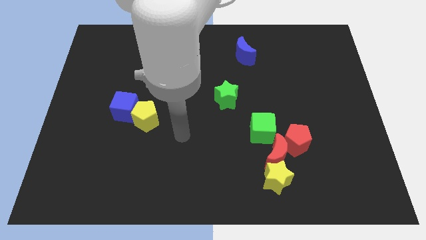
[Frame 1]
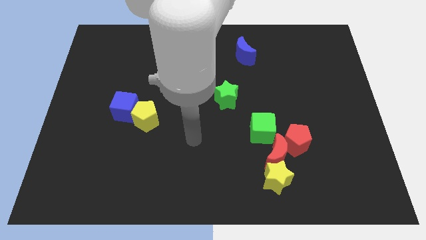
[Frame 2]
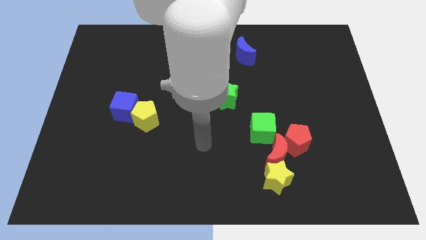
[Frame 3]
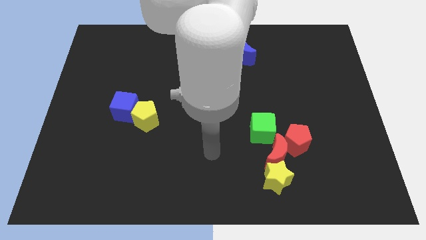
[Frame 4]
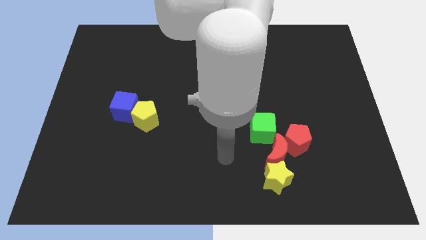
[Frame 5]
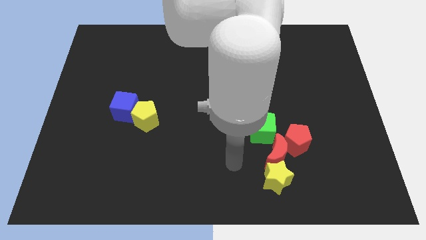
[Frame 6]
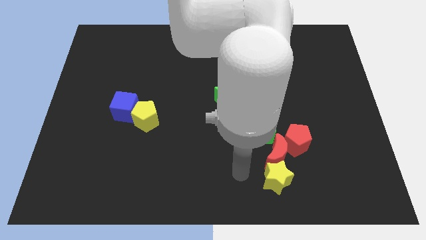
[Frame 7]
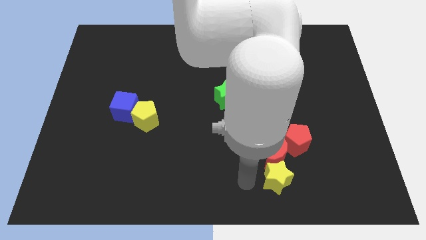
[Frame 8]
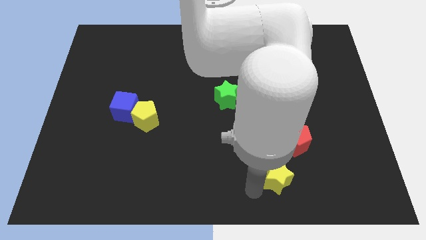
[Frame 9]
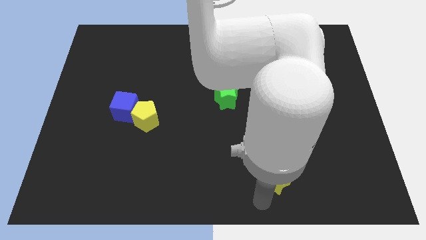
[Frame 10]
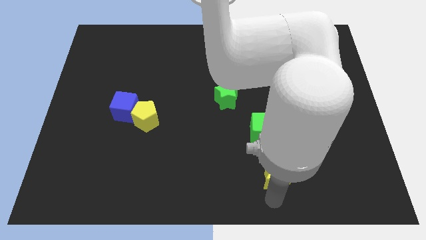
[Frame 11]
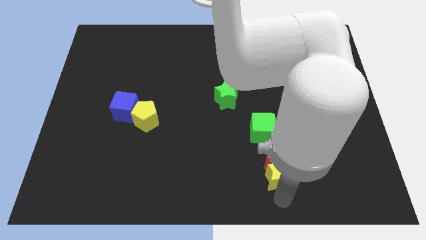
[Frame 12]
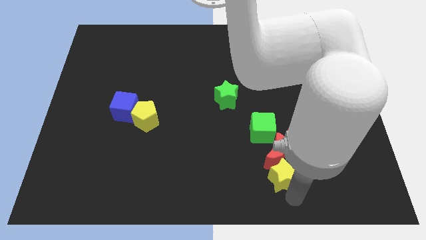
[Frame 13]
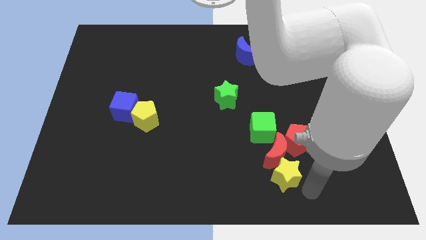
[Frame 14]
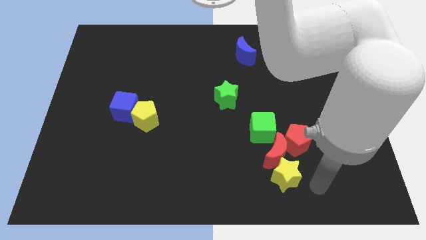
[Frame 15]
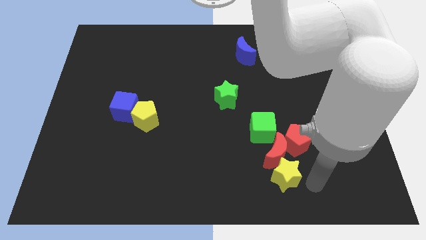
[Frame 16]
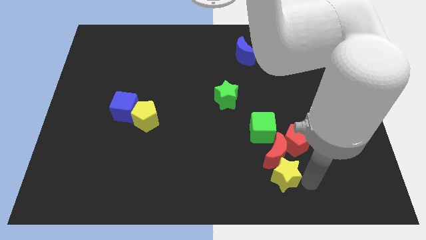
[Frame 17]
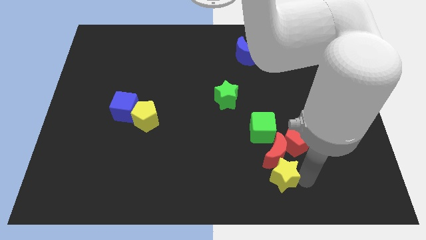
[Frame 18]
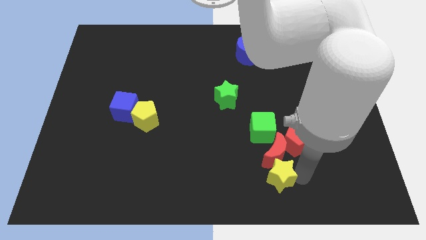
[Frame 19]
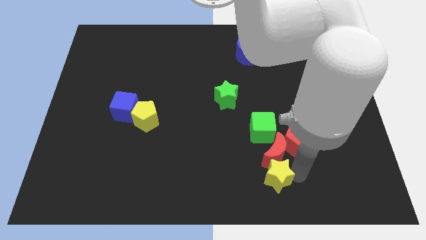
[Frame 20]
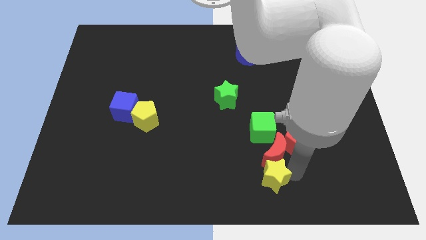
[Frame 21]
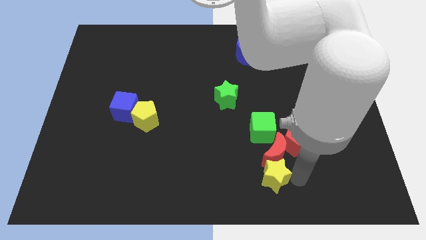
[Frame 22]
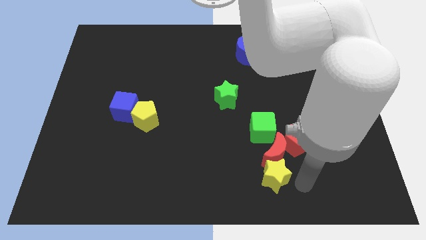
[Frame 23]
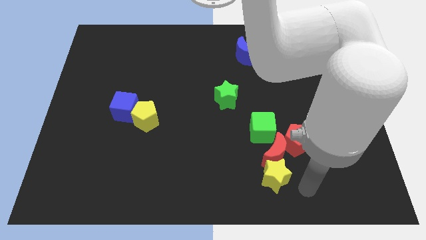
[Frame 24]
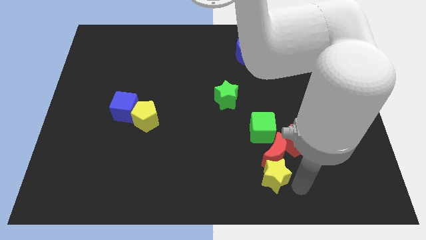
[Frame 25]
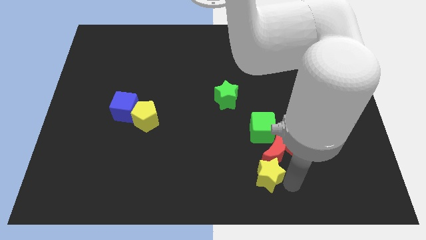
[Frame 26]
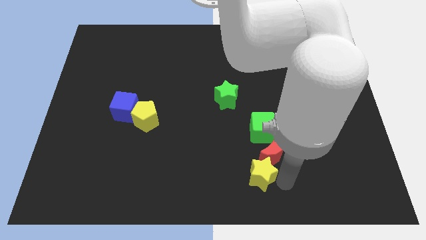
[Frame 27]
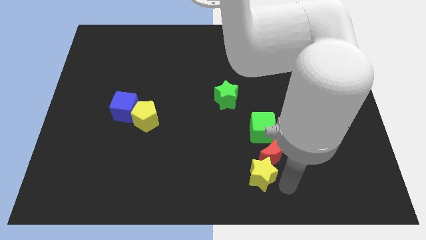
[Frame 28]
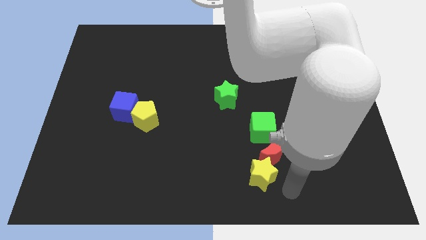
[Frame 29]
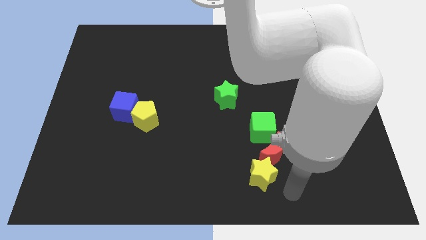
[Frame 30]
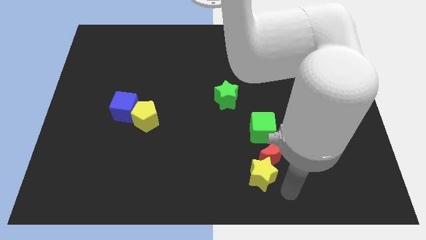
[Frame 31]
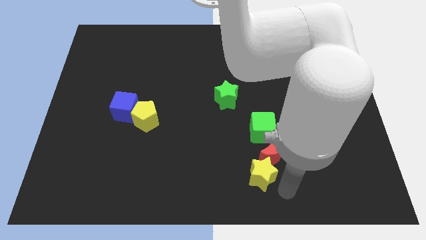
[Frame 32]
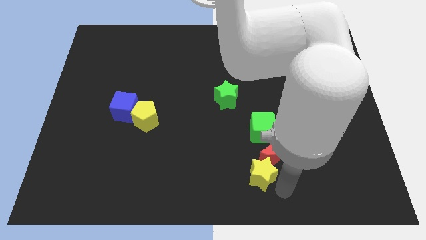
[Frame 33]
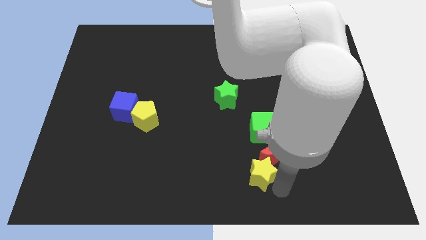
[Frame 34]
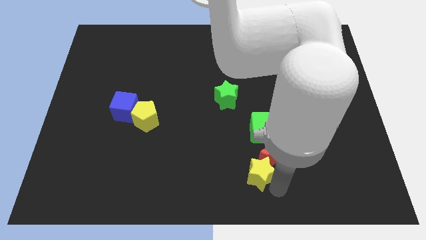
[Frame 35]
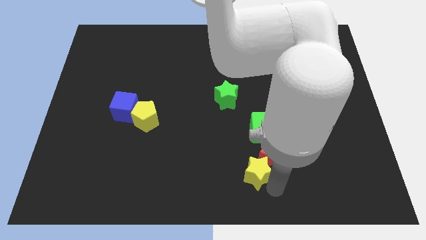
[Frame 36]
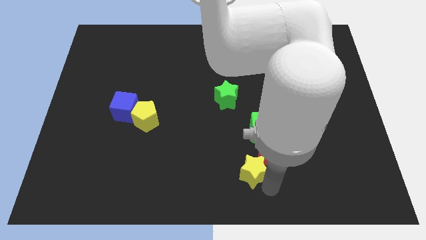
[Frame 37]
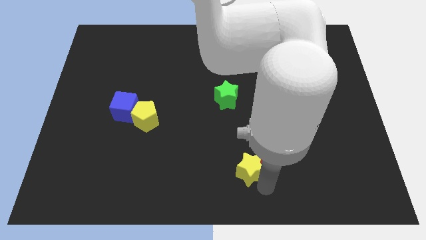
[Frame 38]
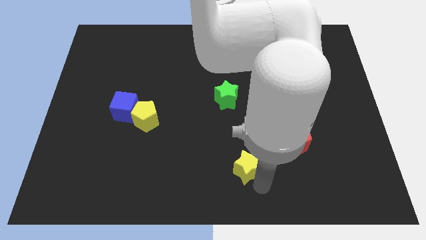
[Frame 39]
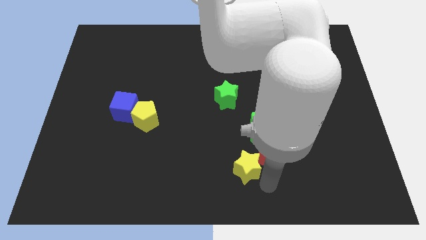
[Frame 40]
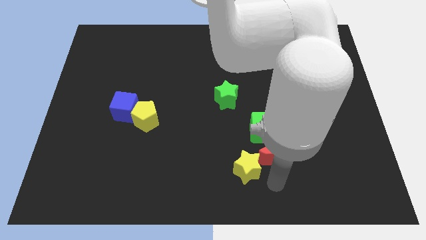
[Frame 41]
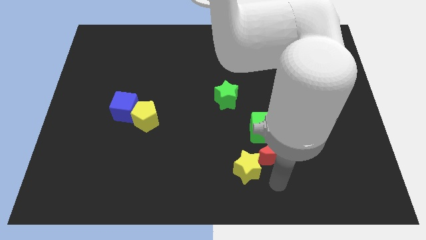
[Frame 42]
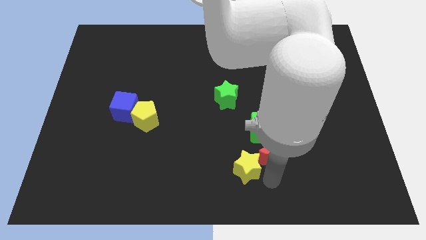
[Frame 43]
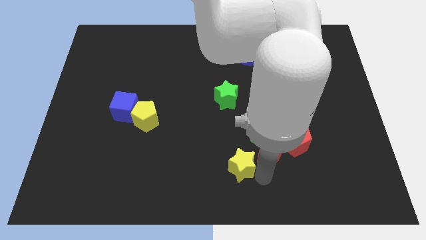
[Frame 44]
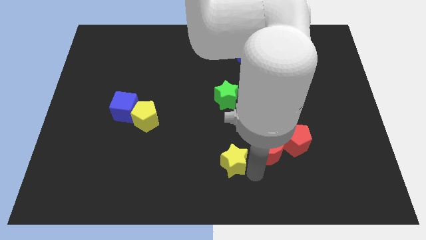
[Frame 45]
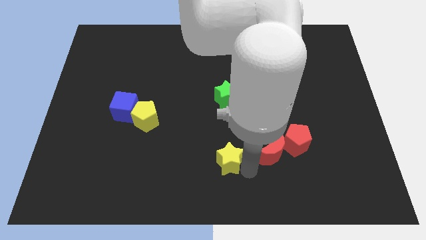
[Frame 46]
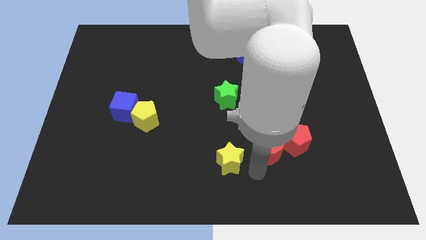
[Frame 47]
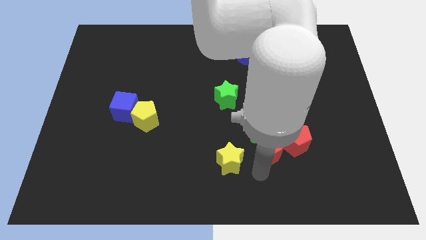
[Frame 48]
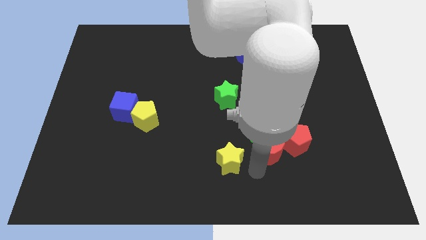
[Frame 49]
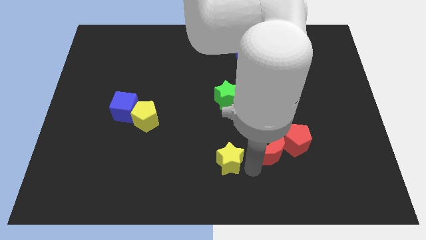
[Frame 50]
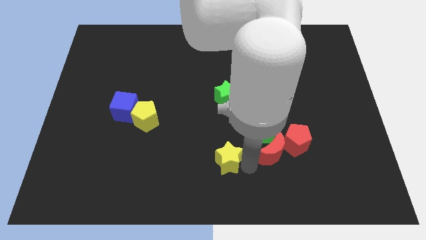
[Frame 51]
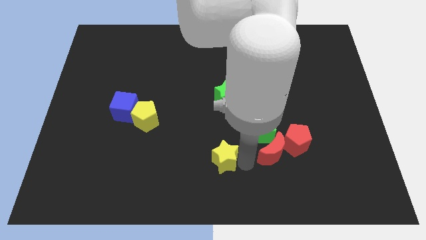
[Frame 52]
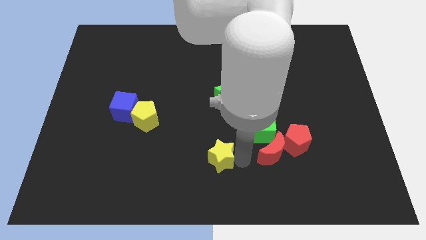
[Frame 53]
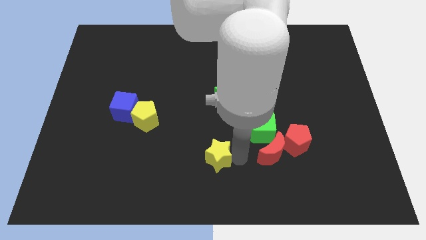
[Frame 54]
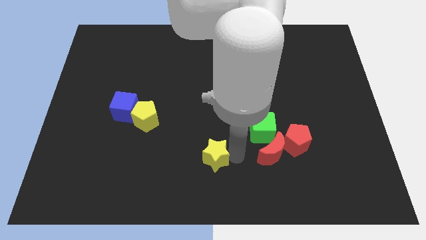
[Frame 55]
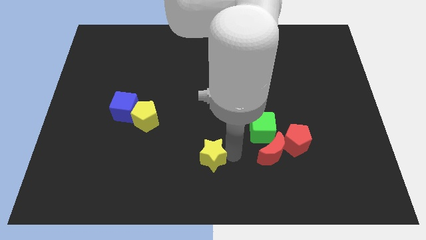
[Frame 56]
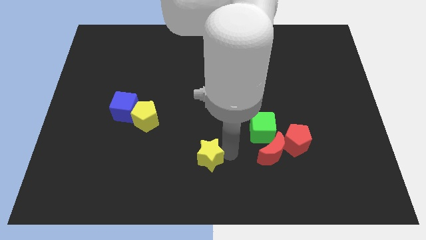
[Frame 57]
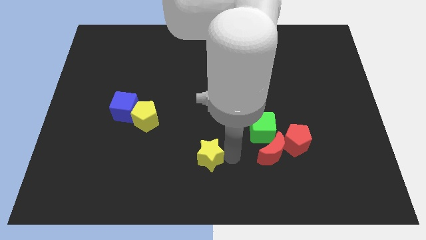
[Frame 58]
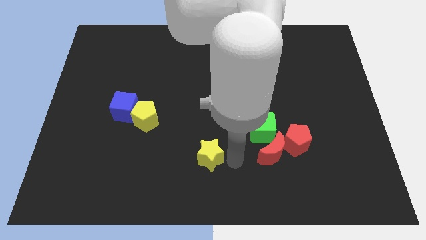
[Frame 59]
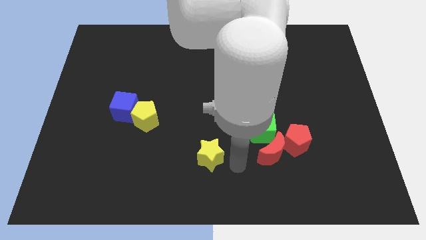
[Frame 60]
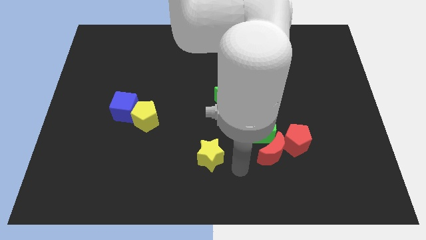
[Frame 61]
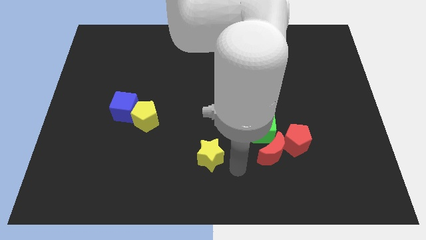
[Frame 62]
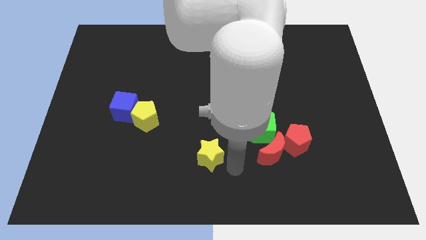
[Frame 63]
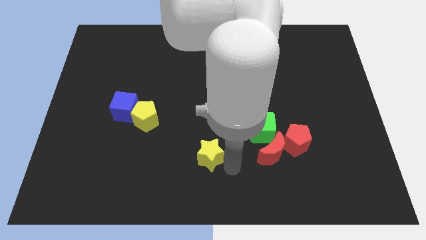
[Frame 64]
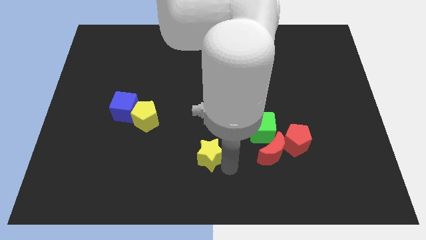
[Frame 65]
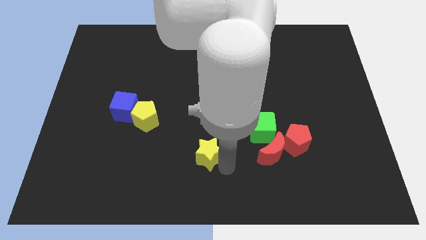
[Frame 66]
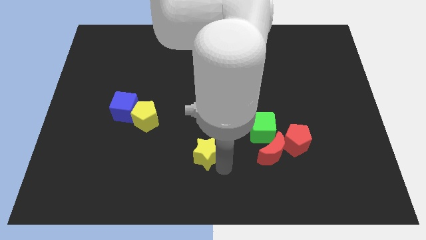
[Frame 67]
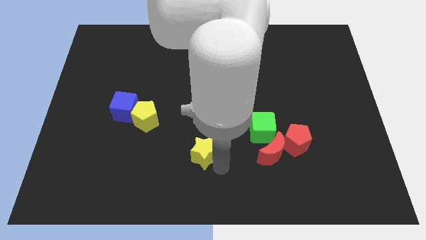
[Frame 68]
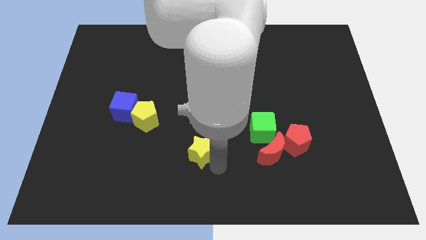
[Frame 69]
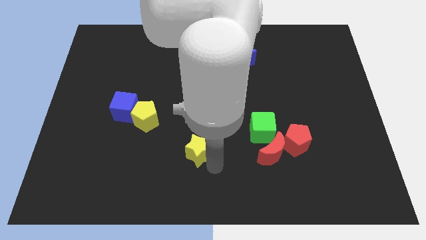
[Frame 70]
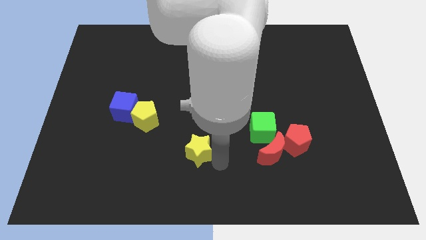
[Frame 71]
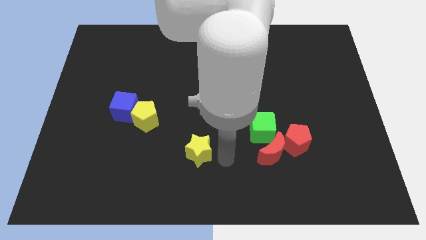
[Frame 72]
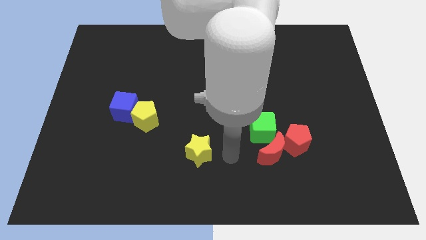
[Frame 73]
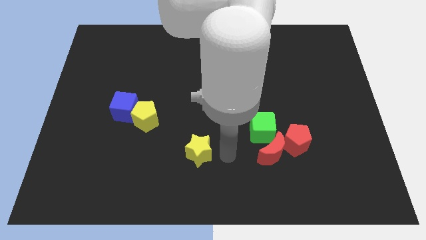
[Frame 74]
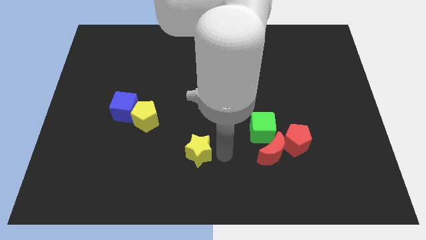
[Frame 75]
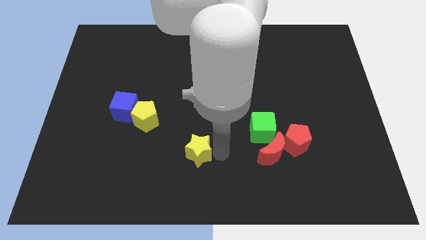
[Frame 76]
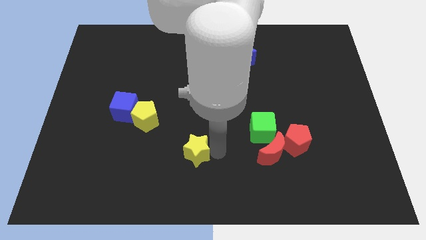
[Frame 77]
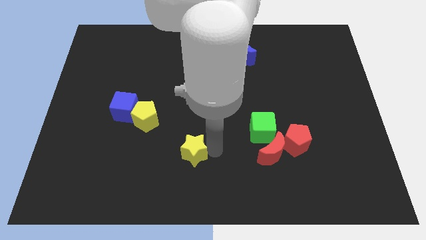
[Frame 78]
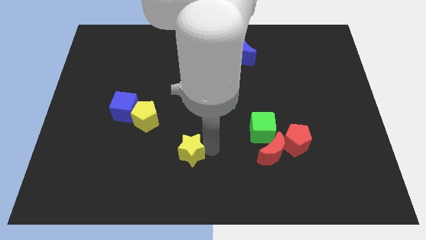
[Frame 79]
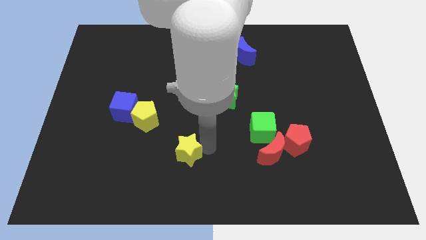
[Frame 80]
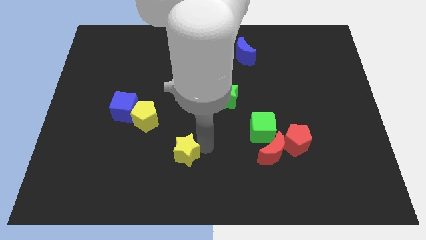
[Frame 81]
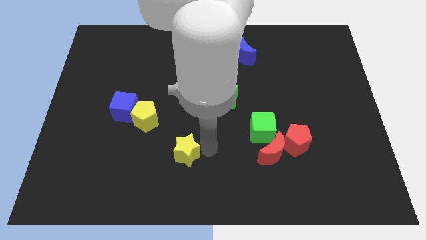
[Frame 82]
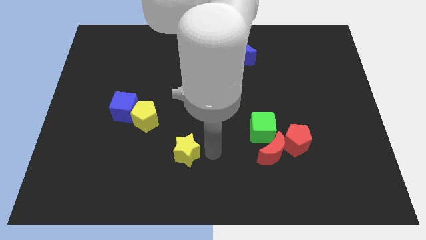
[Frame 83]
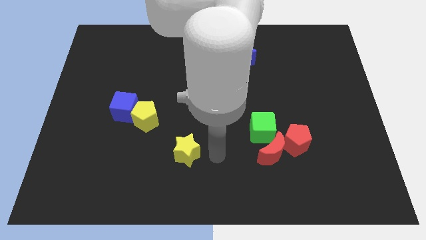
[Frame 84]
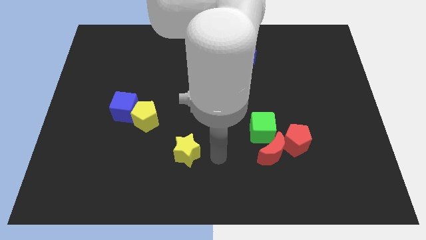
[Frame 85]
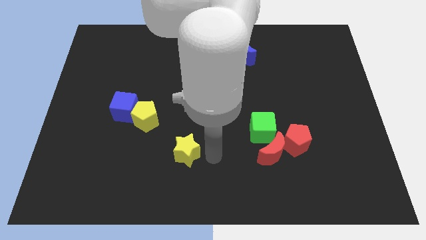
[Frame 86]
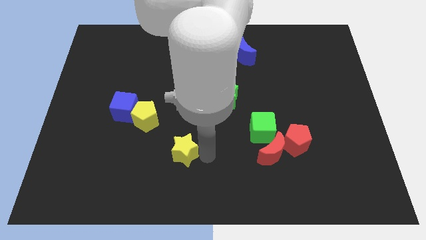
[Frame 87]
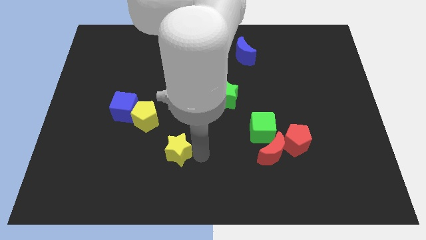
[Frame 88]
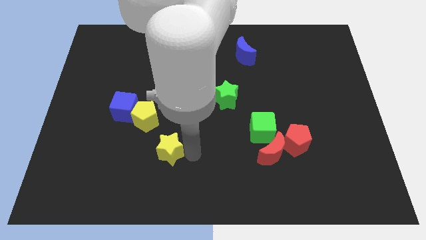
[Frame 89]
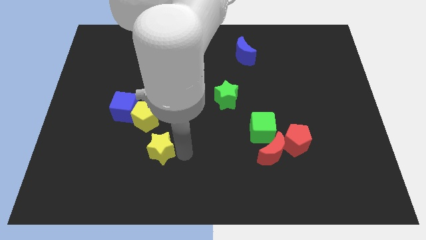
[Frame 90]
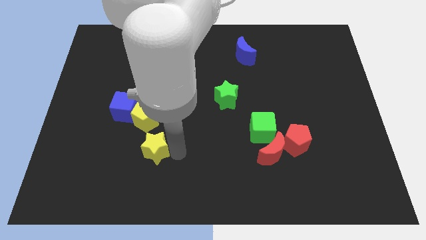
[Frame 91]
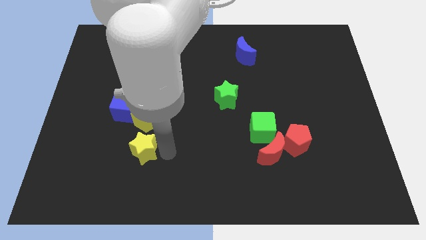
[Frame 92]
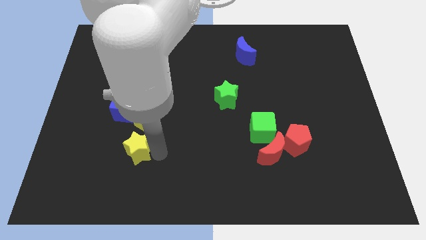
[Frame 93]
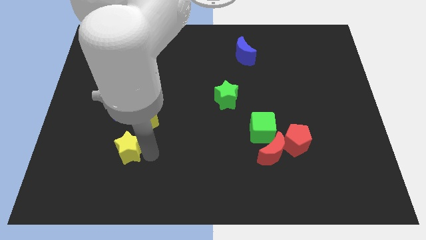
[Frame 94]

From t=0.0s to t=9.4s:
slide the yellow star to the bottom left of the yellow pentagon
